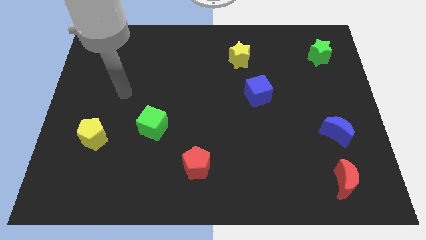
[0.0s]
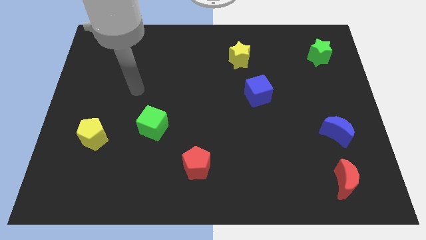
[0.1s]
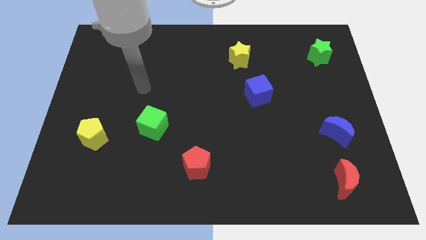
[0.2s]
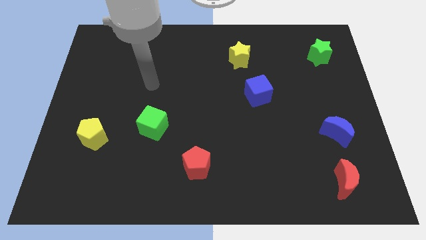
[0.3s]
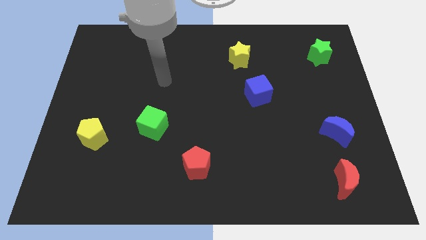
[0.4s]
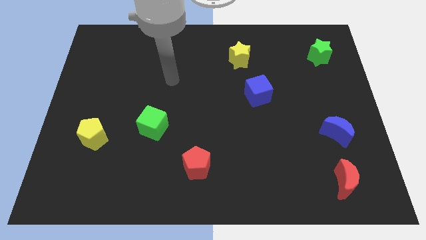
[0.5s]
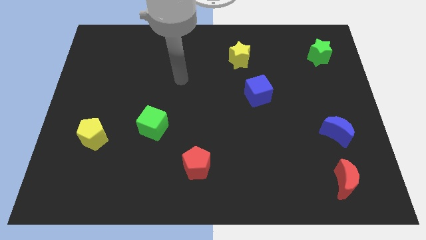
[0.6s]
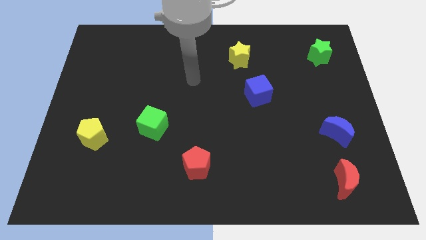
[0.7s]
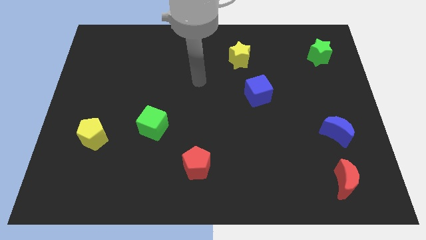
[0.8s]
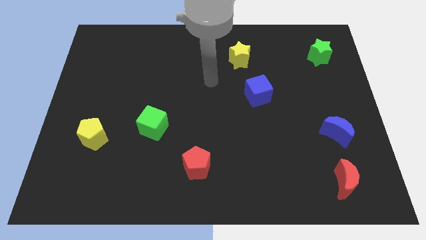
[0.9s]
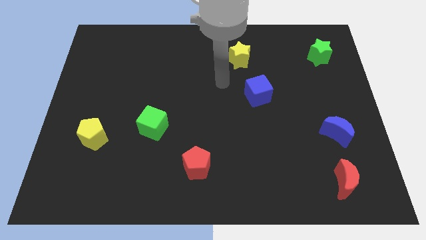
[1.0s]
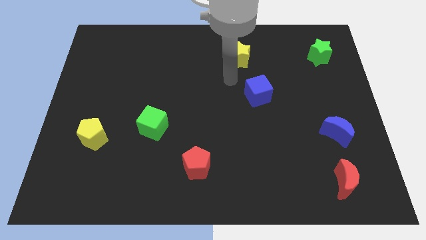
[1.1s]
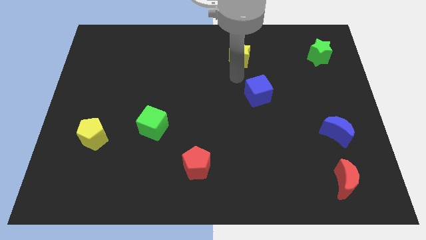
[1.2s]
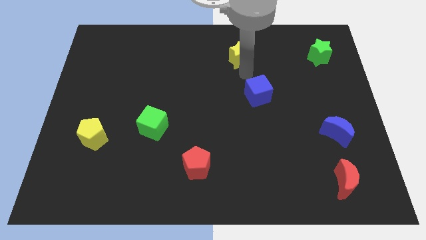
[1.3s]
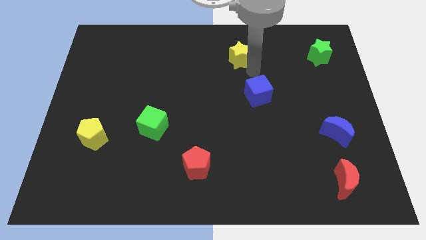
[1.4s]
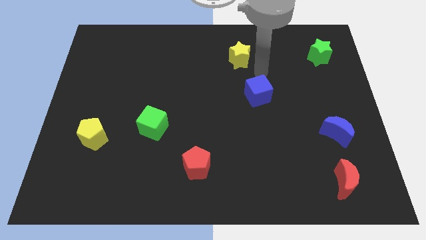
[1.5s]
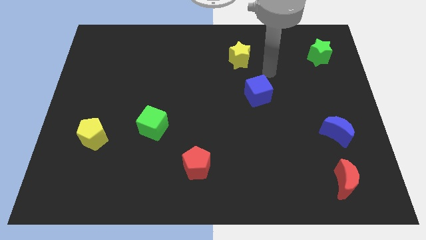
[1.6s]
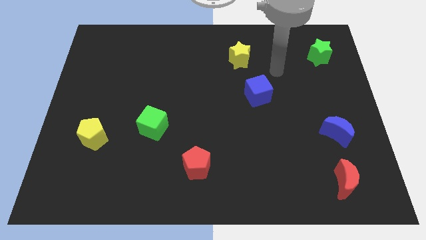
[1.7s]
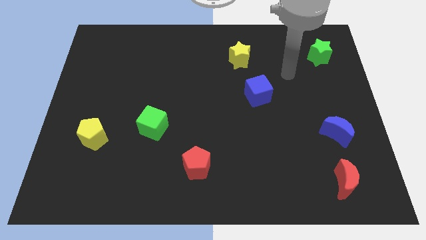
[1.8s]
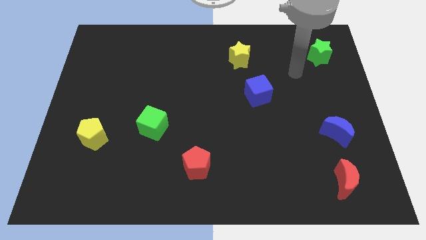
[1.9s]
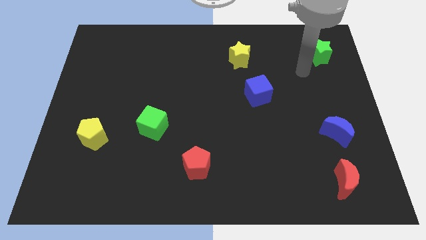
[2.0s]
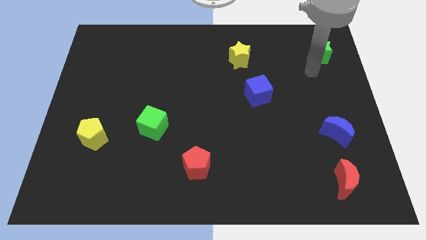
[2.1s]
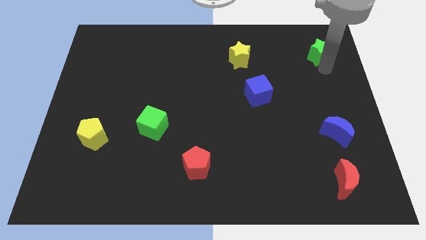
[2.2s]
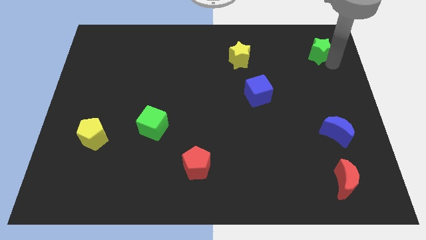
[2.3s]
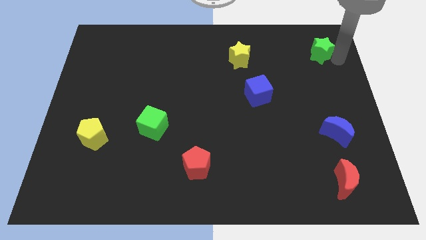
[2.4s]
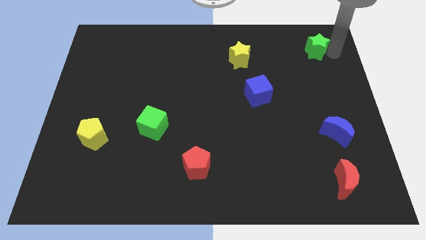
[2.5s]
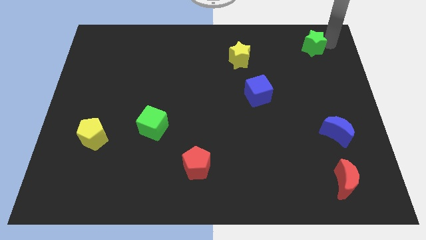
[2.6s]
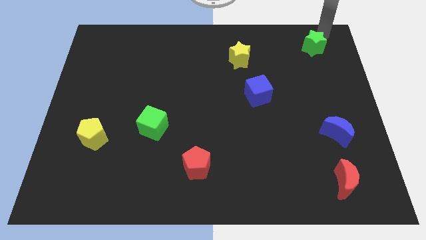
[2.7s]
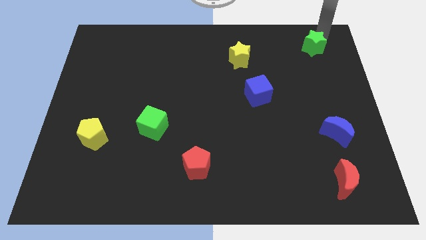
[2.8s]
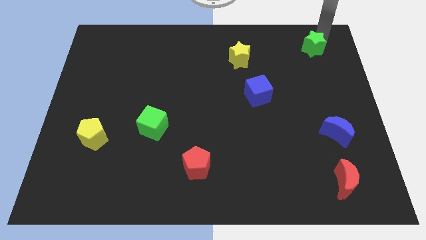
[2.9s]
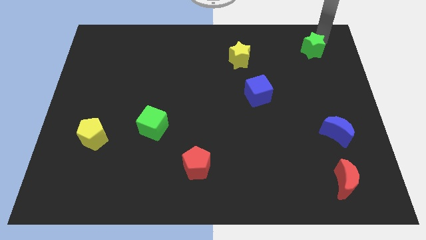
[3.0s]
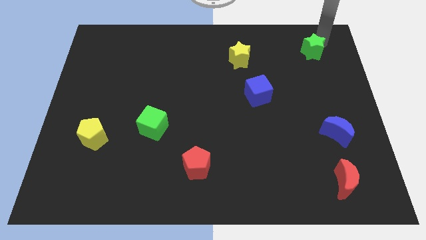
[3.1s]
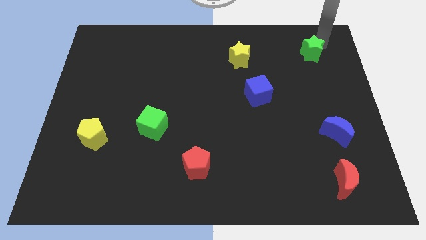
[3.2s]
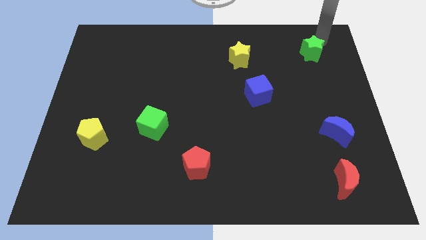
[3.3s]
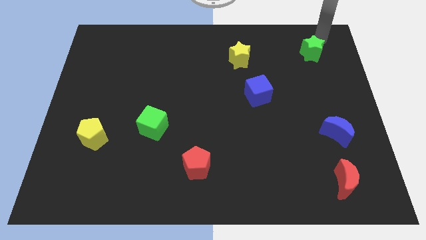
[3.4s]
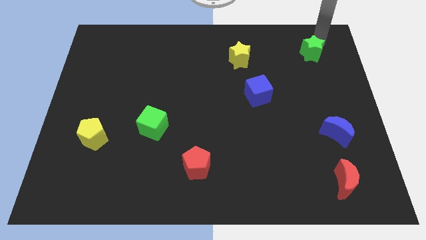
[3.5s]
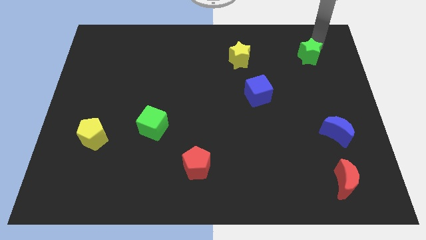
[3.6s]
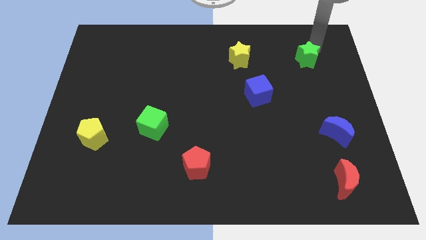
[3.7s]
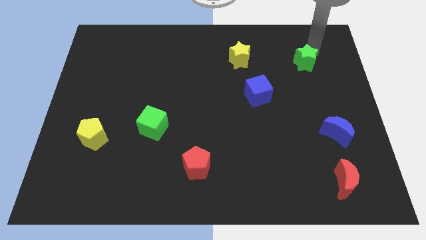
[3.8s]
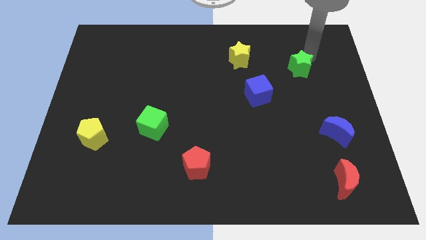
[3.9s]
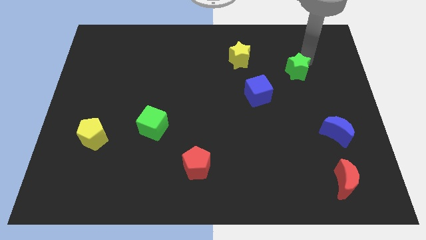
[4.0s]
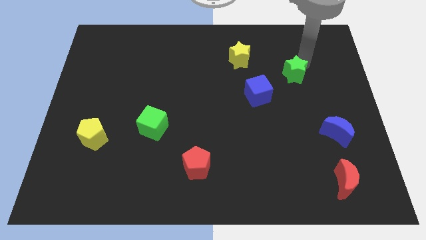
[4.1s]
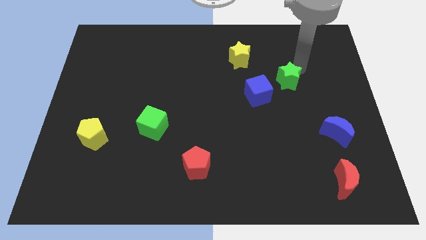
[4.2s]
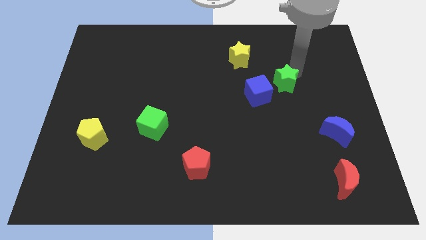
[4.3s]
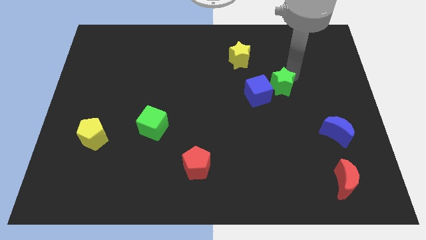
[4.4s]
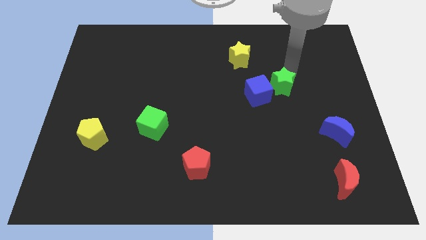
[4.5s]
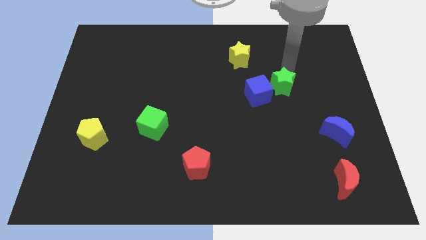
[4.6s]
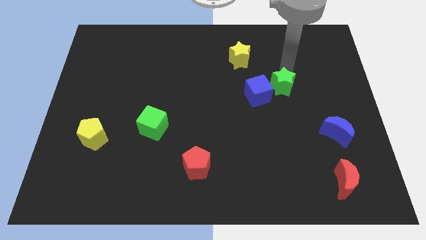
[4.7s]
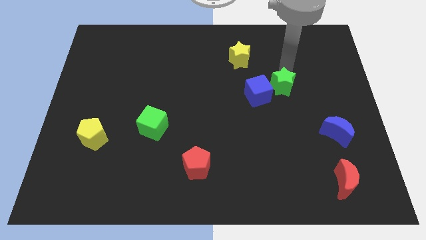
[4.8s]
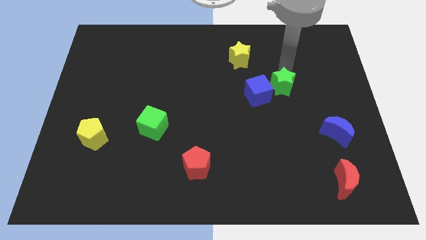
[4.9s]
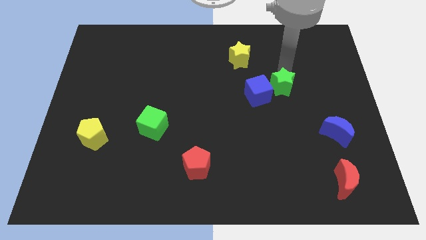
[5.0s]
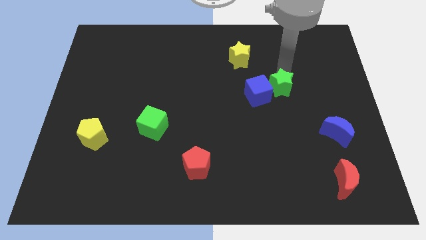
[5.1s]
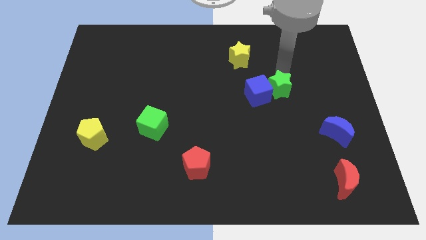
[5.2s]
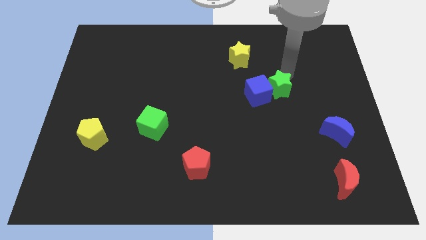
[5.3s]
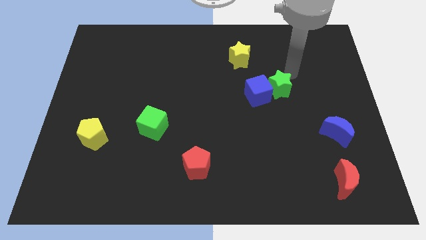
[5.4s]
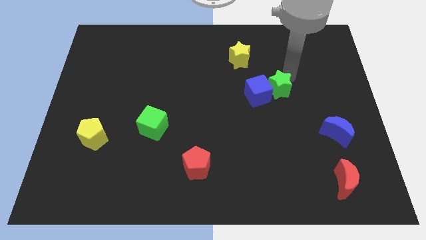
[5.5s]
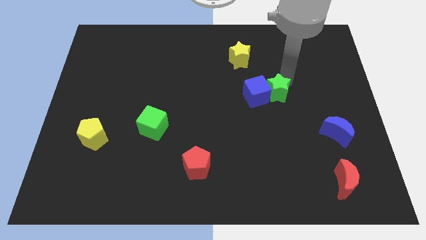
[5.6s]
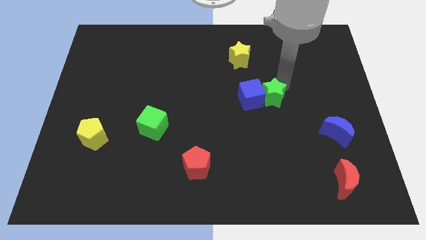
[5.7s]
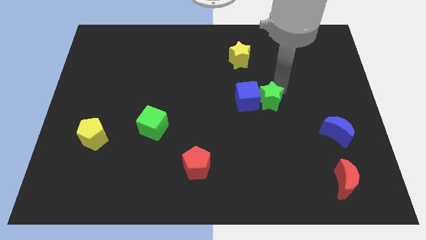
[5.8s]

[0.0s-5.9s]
push the green star diagonally downwards and left

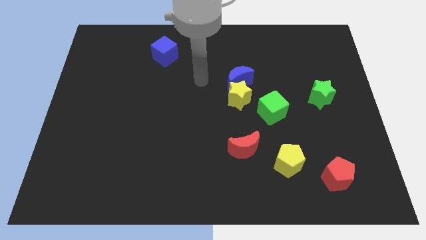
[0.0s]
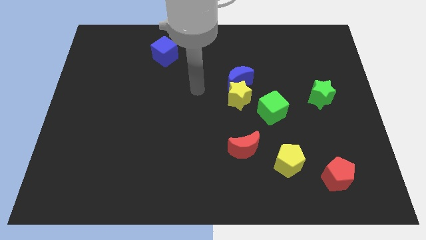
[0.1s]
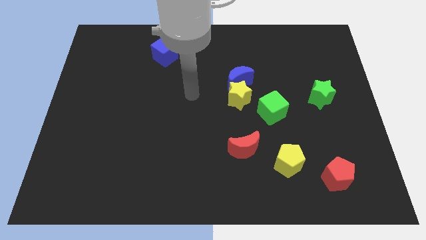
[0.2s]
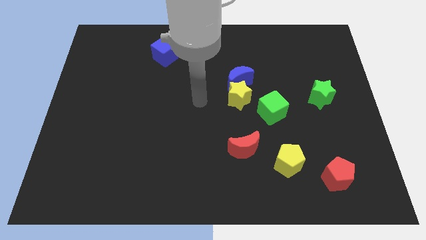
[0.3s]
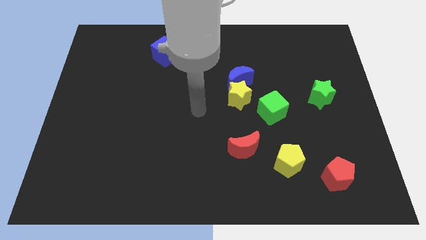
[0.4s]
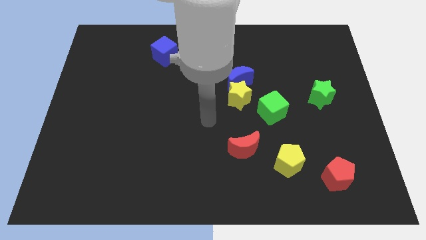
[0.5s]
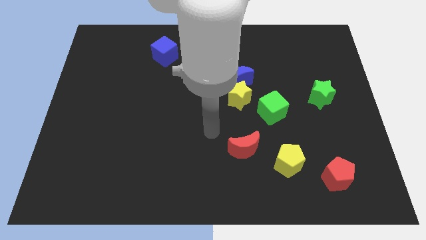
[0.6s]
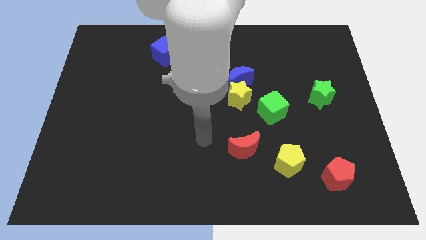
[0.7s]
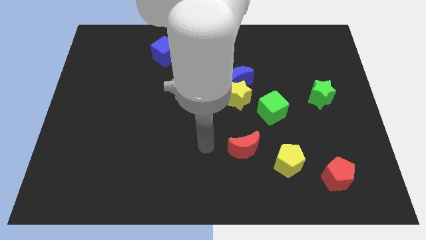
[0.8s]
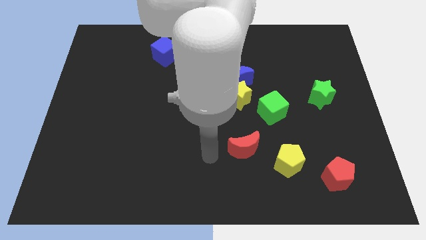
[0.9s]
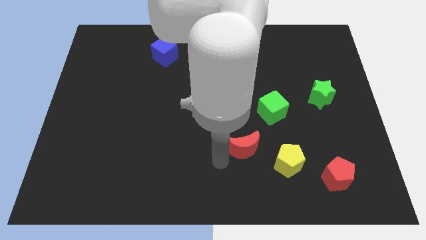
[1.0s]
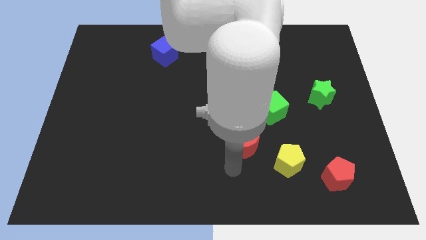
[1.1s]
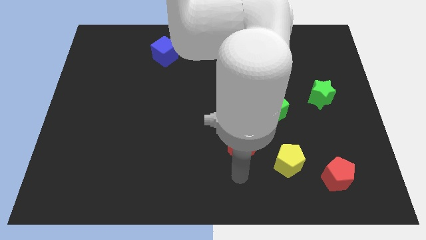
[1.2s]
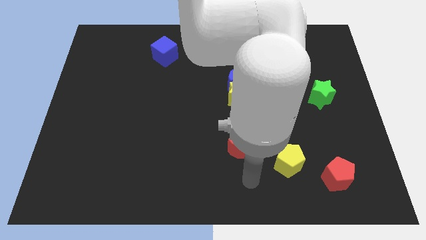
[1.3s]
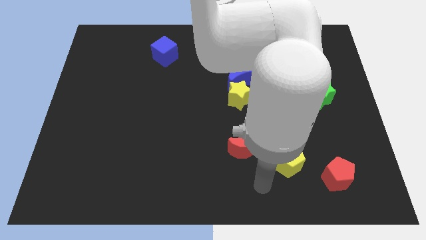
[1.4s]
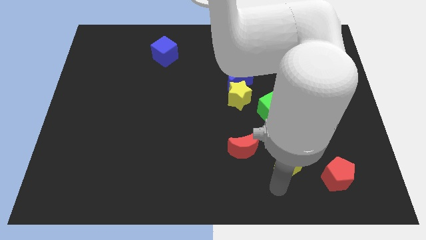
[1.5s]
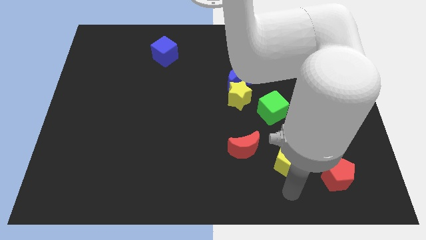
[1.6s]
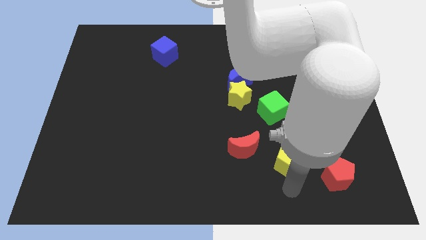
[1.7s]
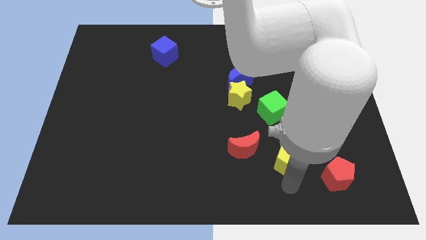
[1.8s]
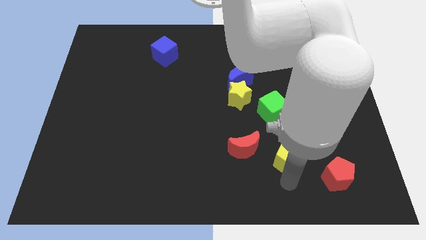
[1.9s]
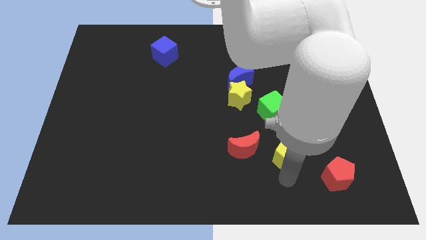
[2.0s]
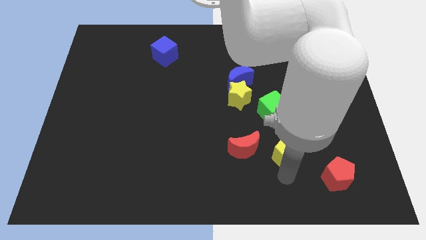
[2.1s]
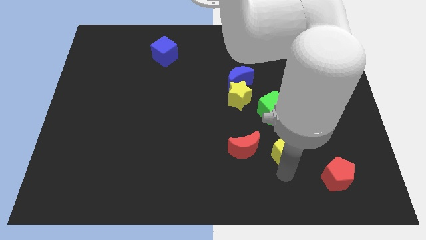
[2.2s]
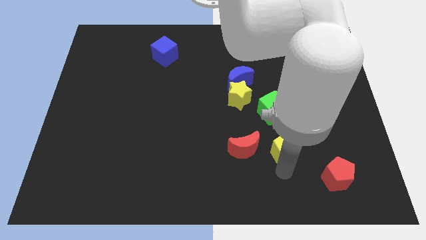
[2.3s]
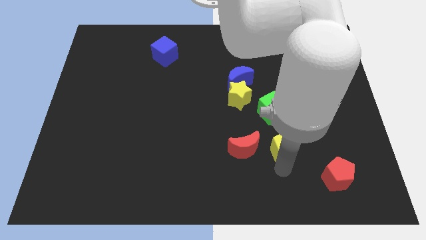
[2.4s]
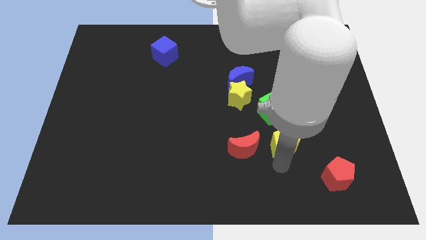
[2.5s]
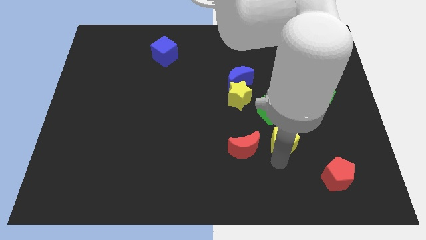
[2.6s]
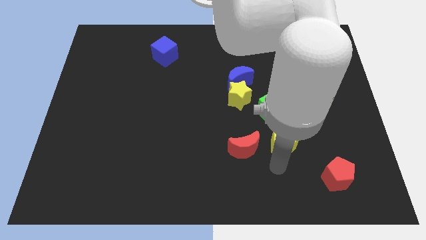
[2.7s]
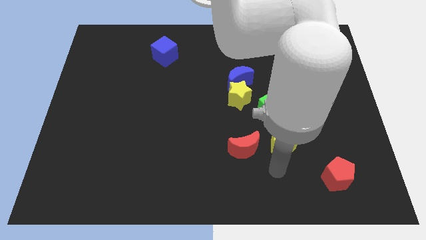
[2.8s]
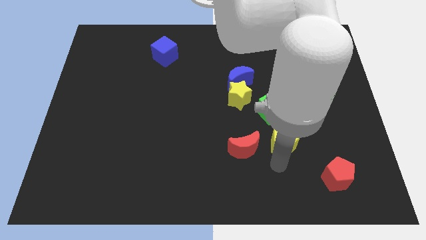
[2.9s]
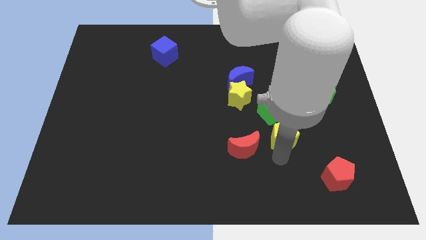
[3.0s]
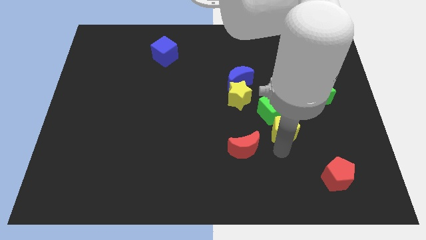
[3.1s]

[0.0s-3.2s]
move the yellow pentagon up a bit
